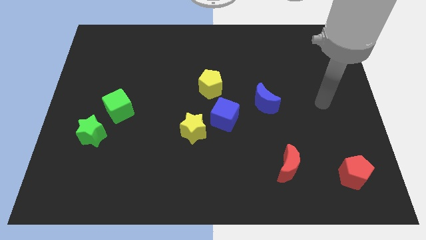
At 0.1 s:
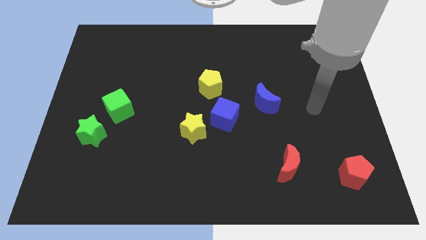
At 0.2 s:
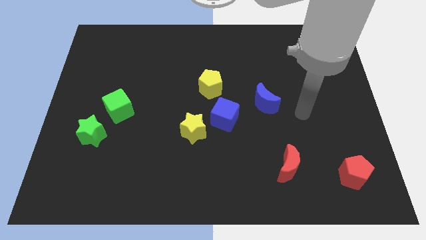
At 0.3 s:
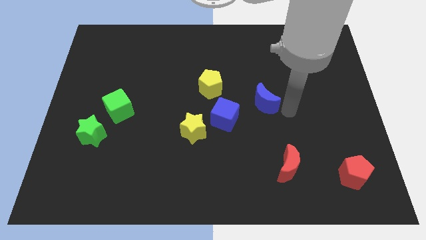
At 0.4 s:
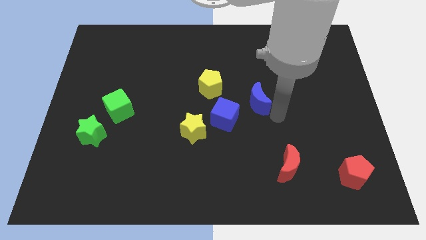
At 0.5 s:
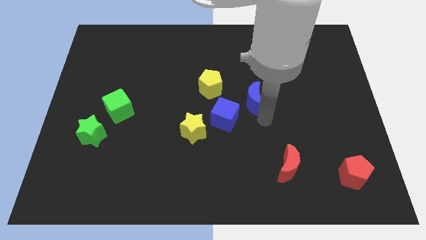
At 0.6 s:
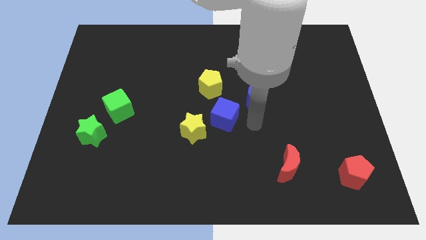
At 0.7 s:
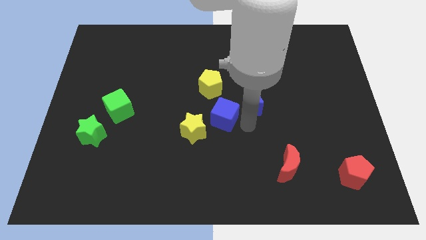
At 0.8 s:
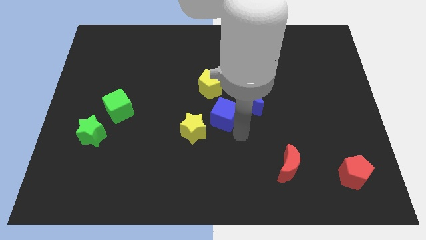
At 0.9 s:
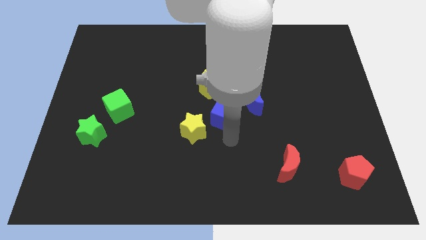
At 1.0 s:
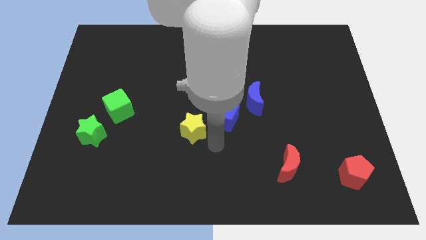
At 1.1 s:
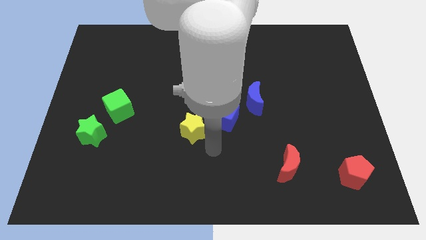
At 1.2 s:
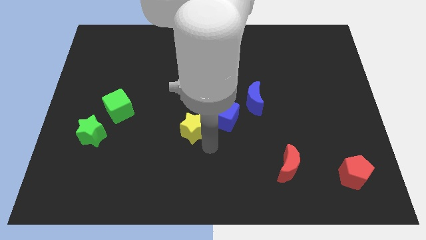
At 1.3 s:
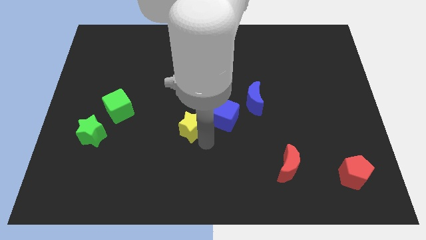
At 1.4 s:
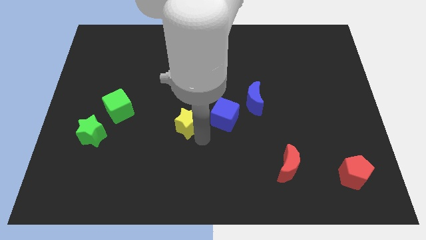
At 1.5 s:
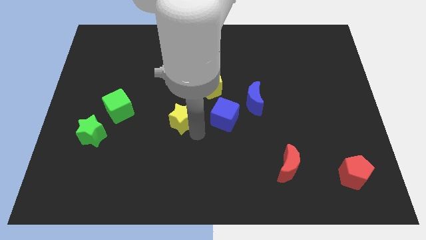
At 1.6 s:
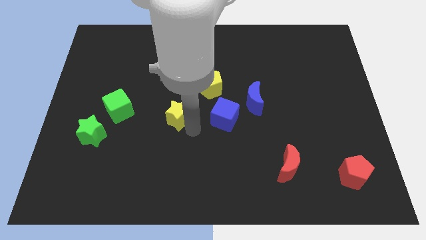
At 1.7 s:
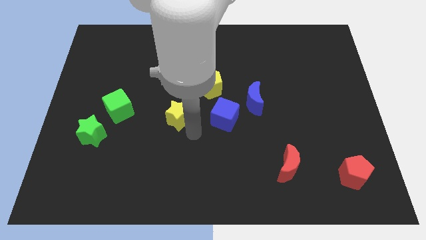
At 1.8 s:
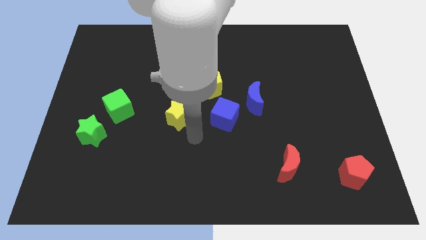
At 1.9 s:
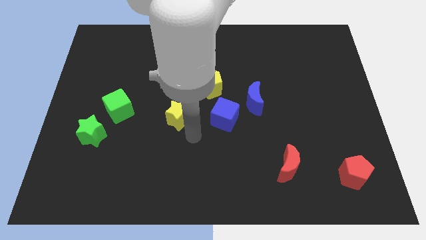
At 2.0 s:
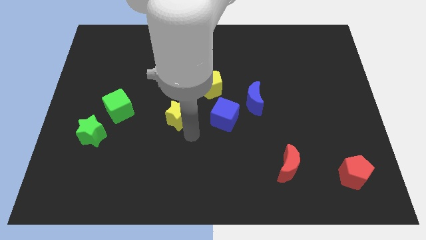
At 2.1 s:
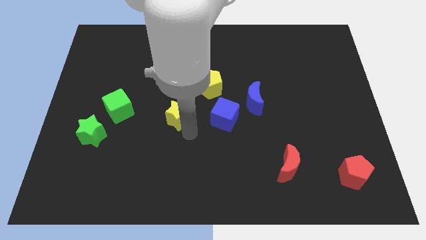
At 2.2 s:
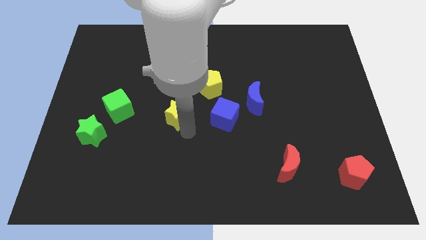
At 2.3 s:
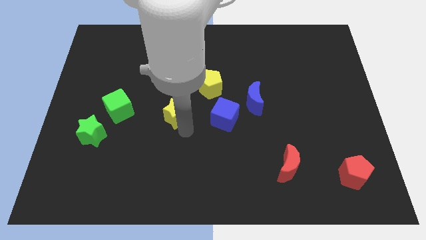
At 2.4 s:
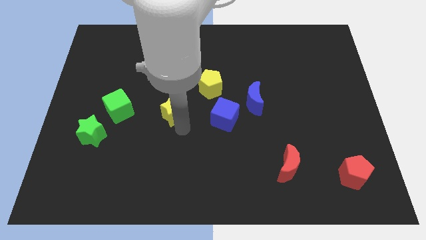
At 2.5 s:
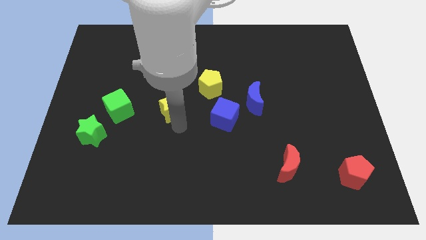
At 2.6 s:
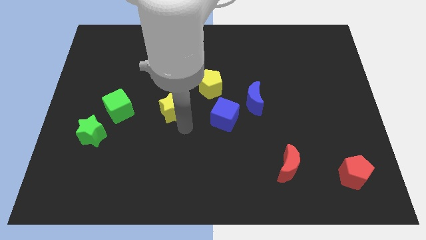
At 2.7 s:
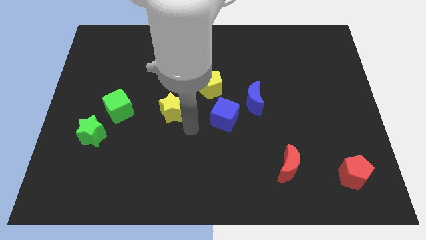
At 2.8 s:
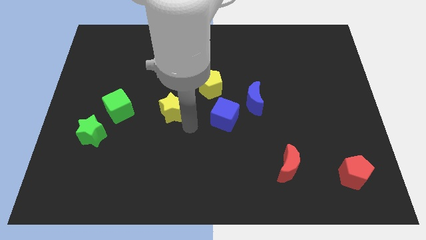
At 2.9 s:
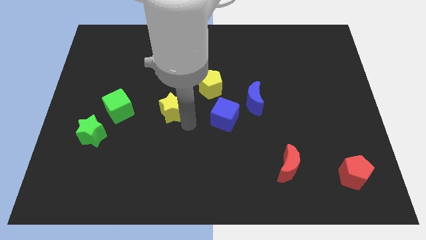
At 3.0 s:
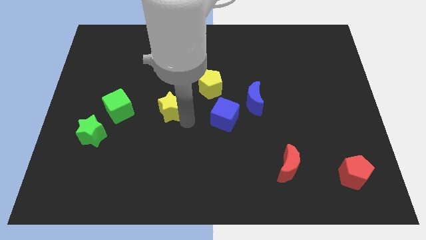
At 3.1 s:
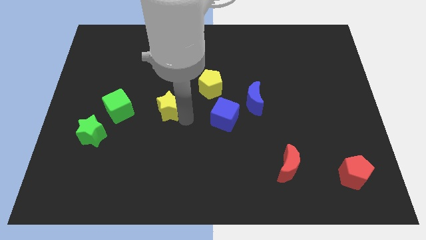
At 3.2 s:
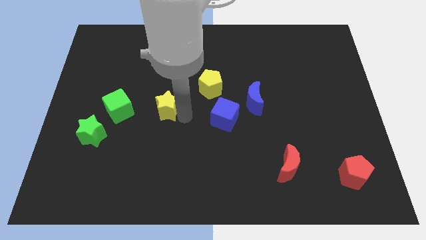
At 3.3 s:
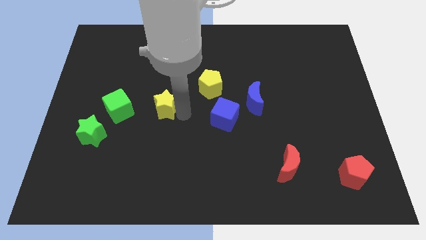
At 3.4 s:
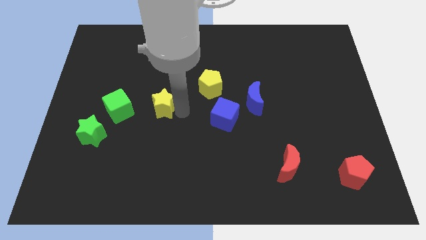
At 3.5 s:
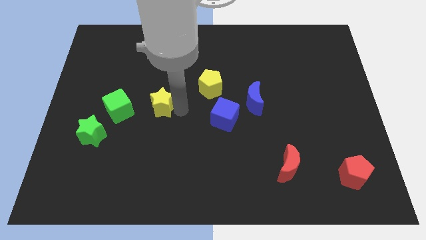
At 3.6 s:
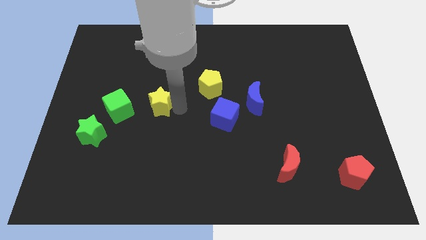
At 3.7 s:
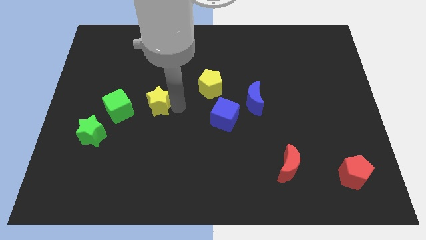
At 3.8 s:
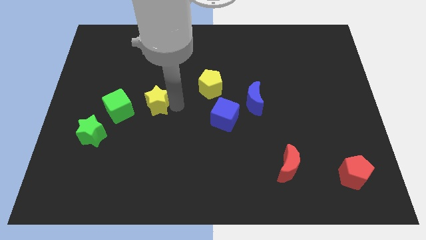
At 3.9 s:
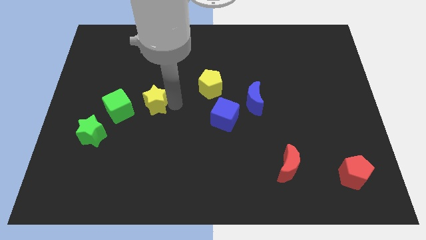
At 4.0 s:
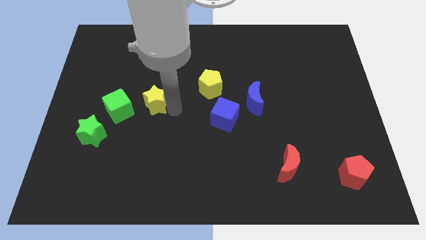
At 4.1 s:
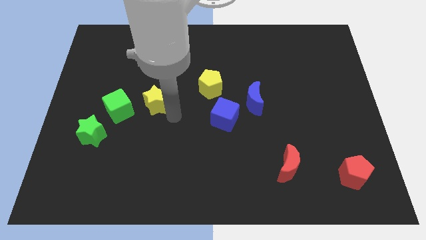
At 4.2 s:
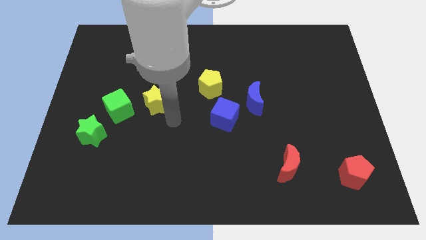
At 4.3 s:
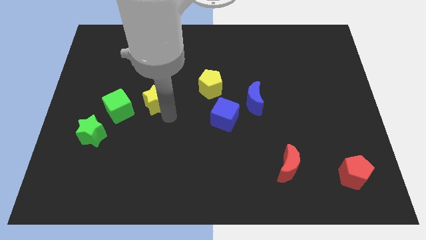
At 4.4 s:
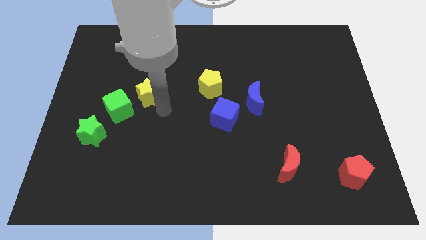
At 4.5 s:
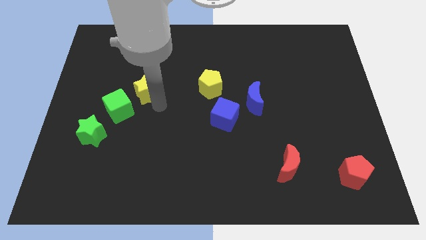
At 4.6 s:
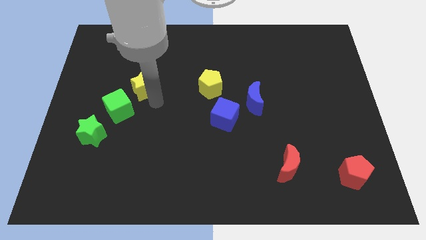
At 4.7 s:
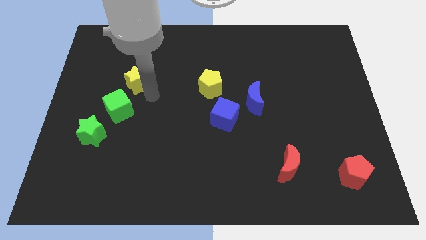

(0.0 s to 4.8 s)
slide the yellow star up and then left

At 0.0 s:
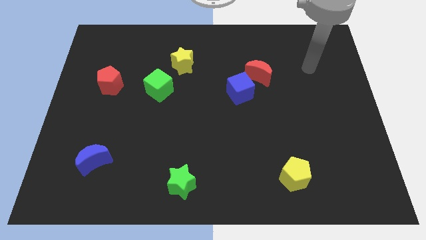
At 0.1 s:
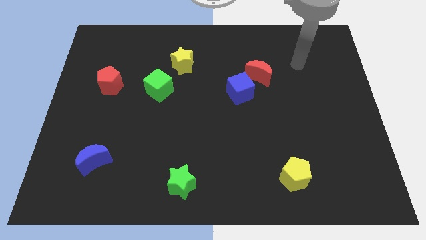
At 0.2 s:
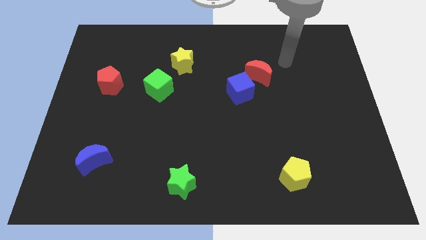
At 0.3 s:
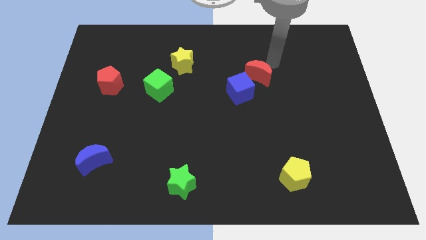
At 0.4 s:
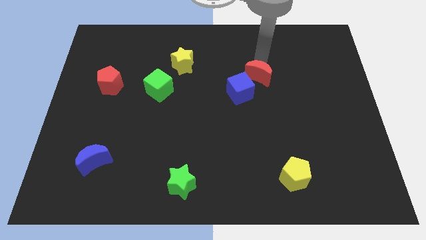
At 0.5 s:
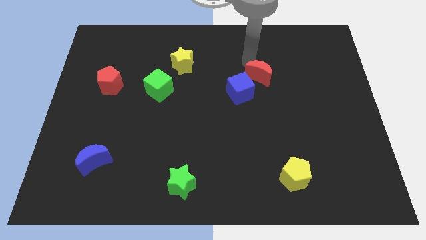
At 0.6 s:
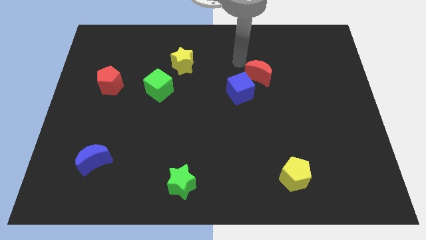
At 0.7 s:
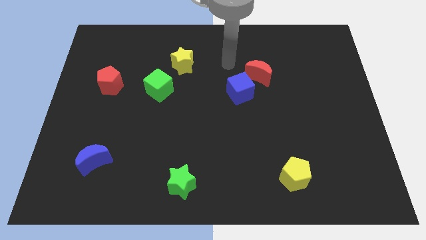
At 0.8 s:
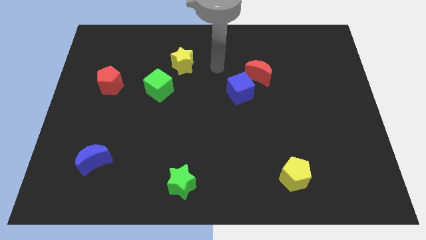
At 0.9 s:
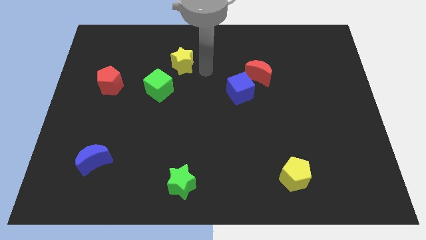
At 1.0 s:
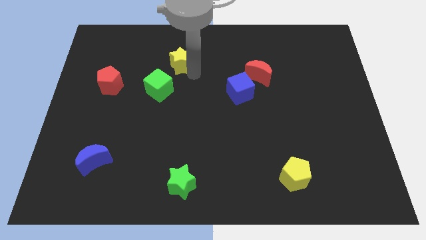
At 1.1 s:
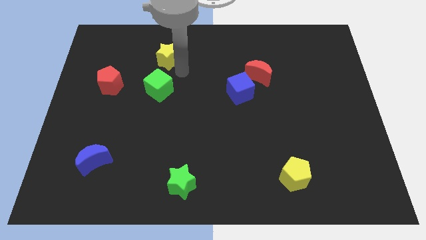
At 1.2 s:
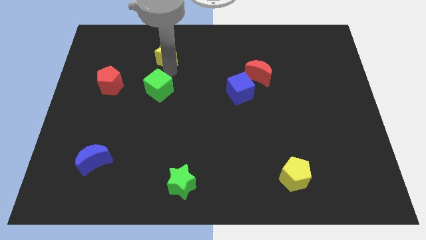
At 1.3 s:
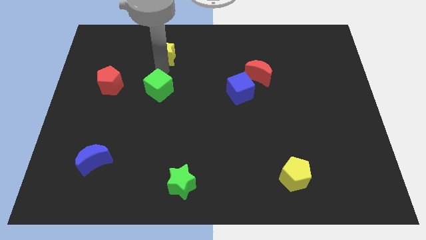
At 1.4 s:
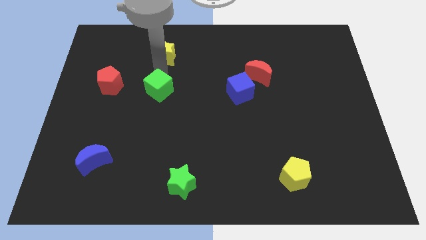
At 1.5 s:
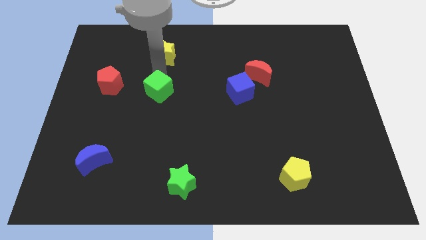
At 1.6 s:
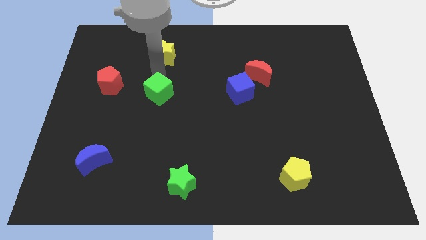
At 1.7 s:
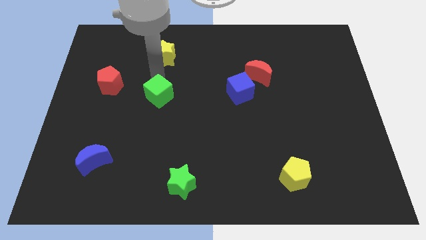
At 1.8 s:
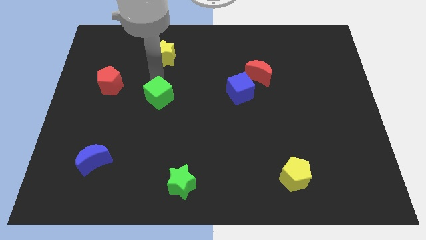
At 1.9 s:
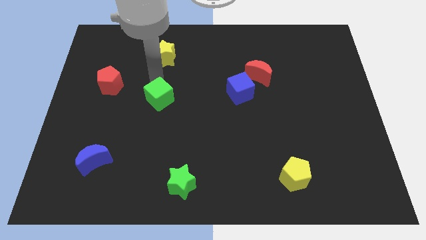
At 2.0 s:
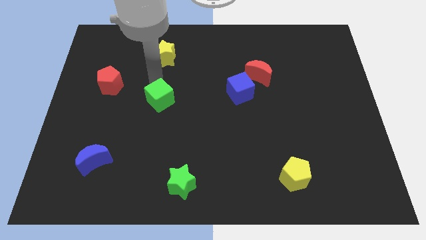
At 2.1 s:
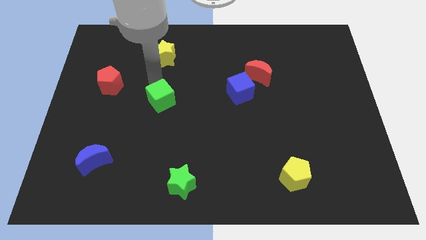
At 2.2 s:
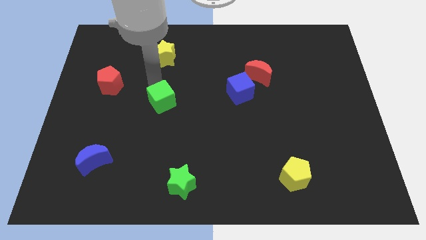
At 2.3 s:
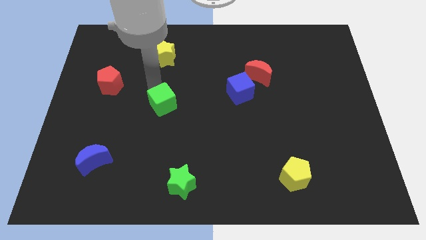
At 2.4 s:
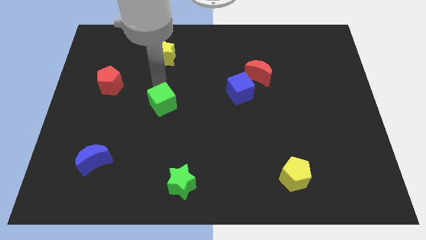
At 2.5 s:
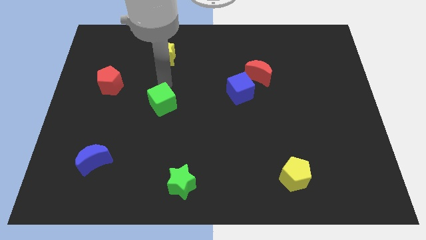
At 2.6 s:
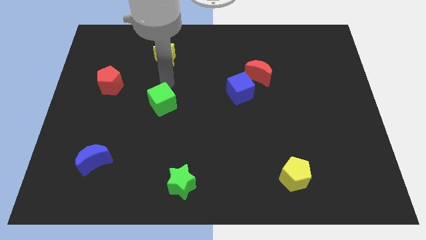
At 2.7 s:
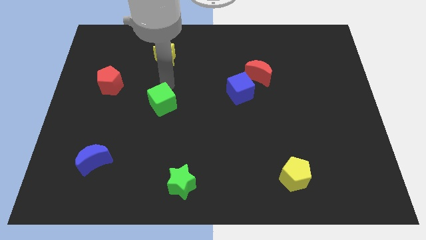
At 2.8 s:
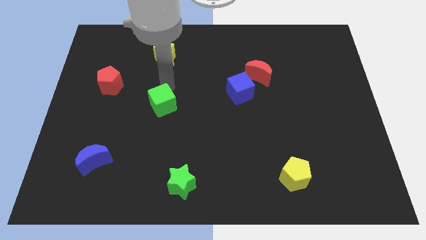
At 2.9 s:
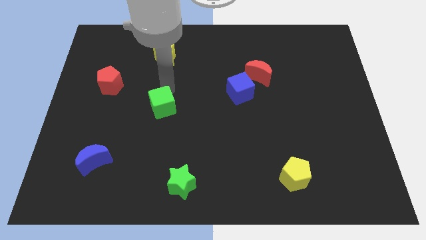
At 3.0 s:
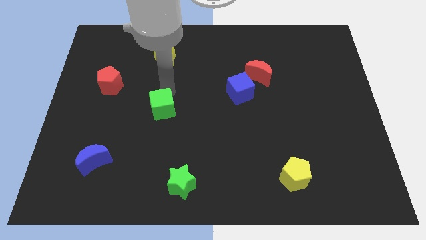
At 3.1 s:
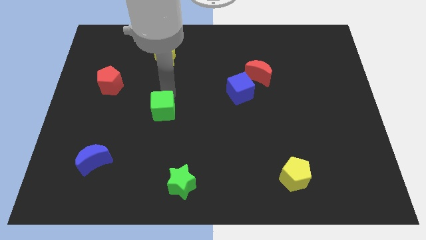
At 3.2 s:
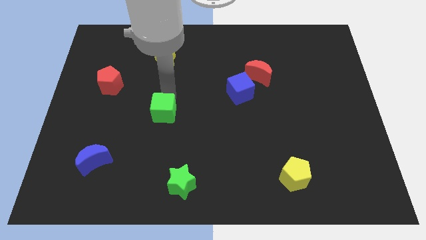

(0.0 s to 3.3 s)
slightly slide the green cube downwards
